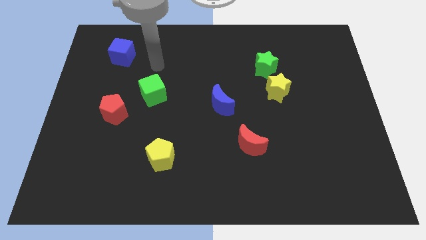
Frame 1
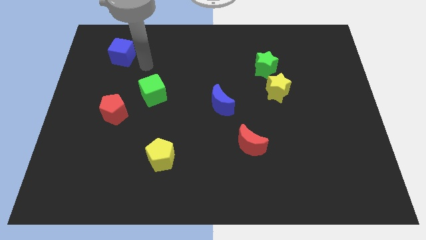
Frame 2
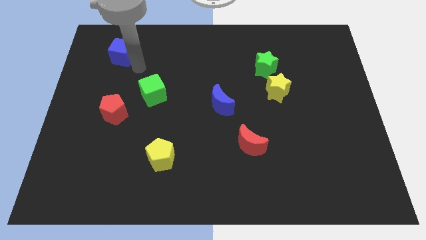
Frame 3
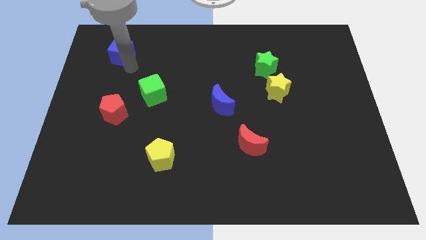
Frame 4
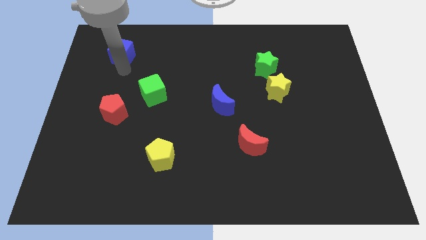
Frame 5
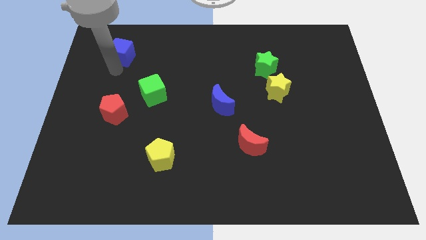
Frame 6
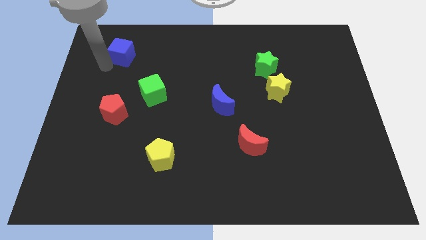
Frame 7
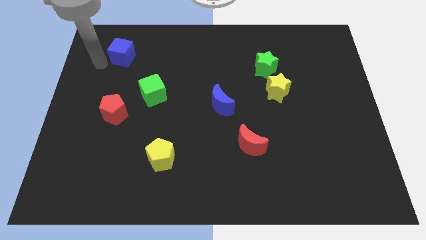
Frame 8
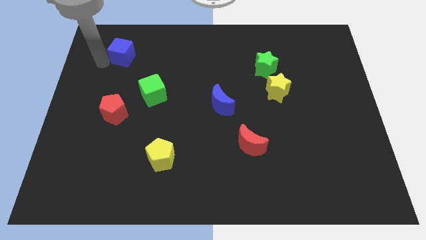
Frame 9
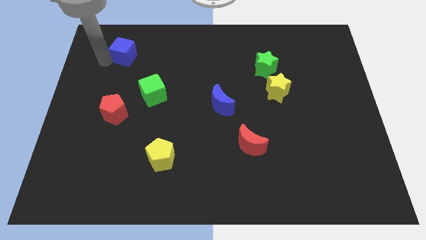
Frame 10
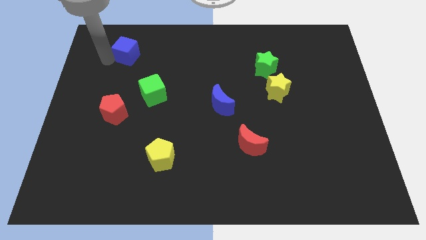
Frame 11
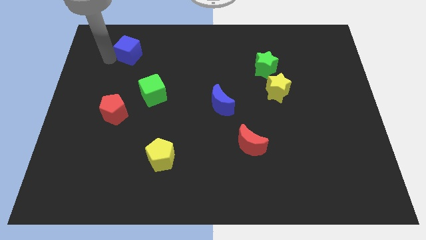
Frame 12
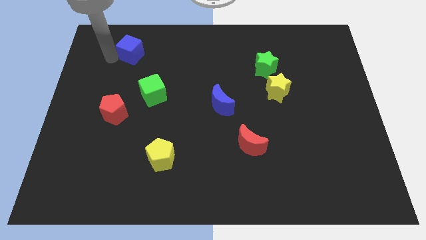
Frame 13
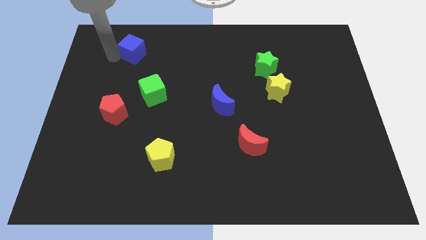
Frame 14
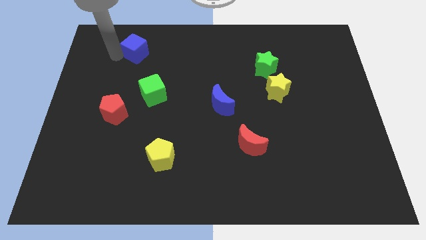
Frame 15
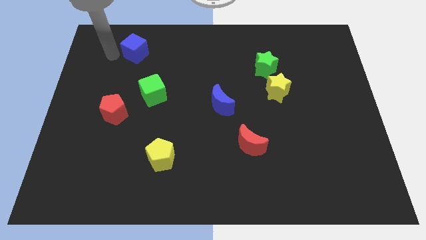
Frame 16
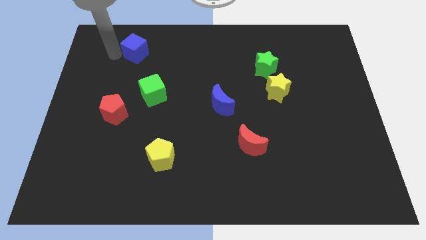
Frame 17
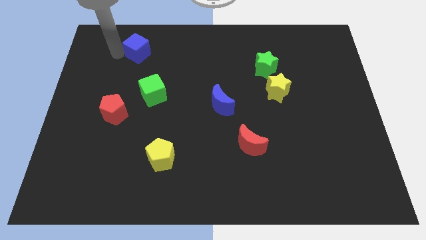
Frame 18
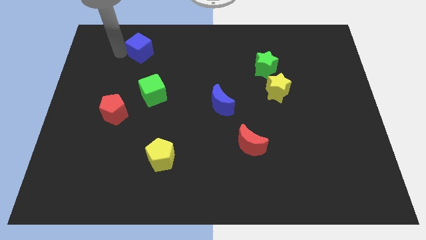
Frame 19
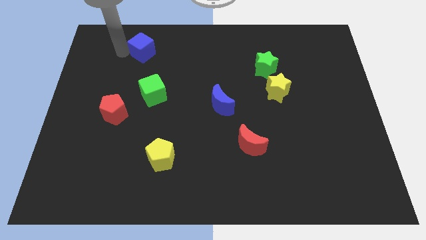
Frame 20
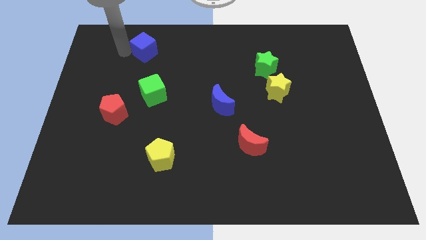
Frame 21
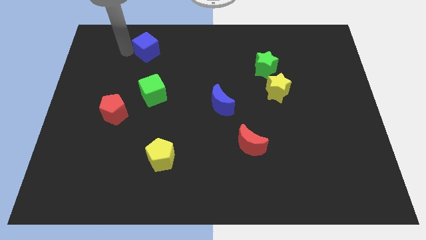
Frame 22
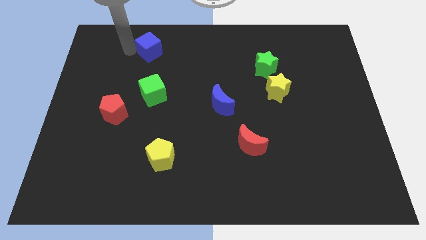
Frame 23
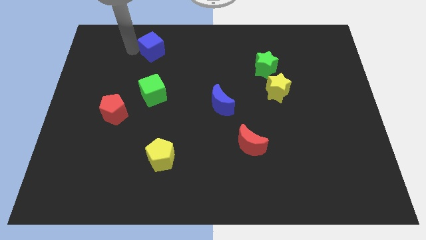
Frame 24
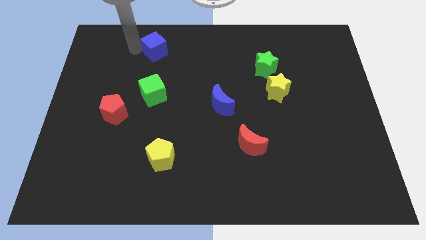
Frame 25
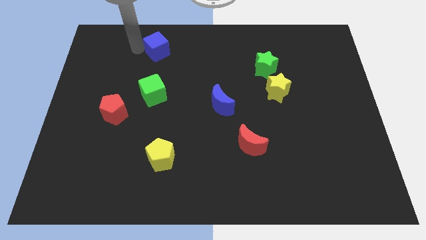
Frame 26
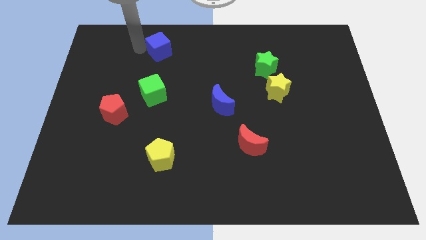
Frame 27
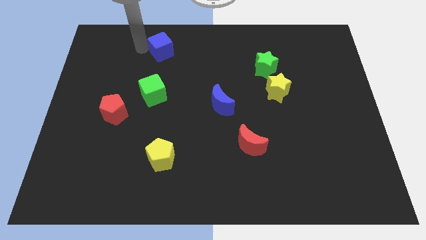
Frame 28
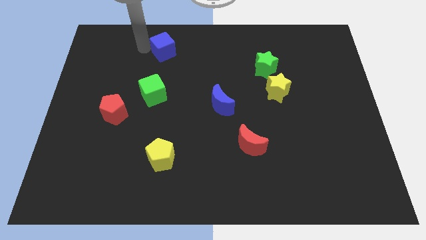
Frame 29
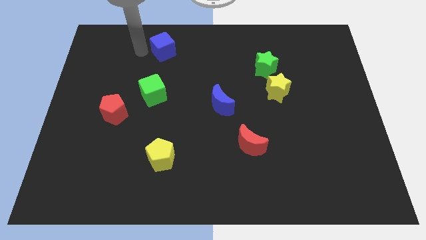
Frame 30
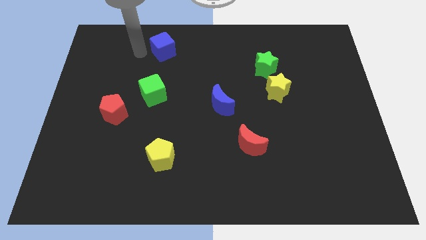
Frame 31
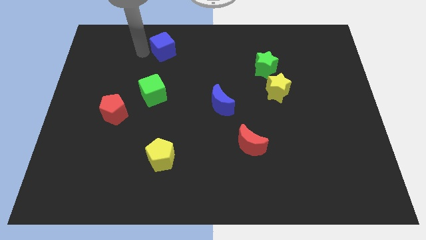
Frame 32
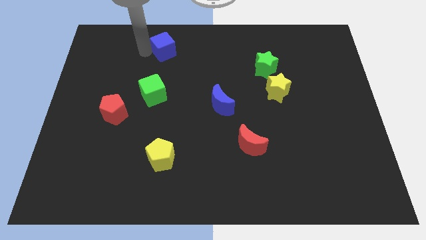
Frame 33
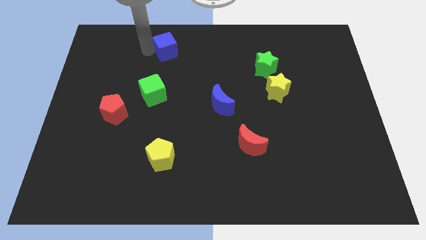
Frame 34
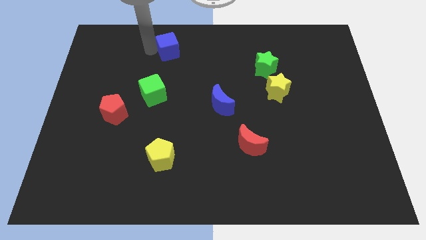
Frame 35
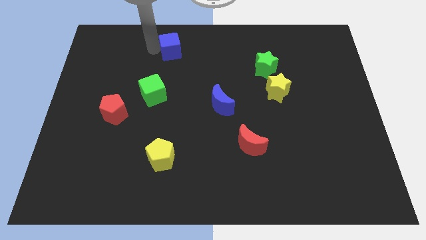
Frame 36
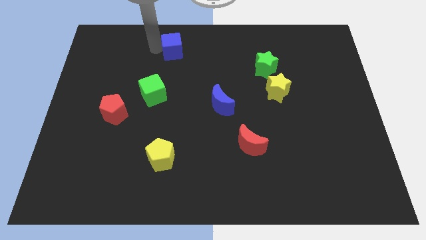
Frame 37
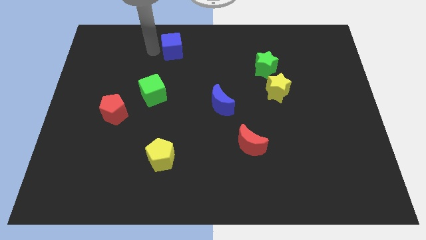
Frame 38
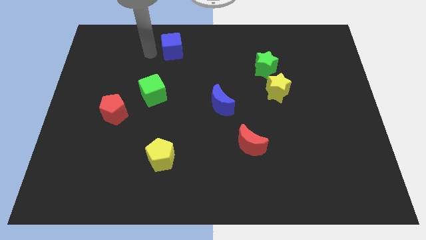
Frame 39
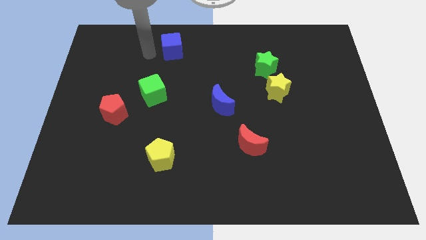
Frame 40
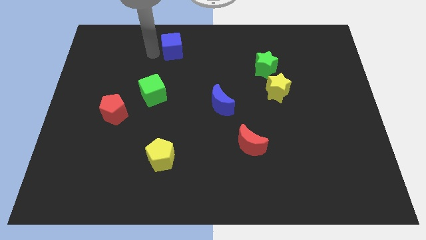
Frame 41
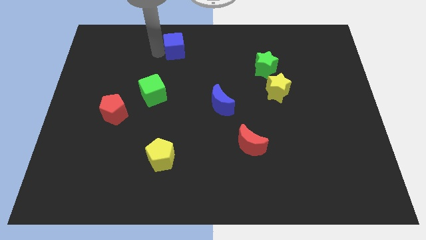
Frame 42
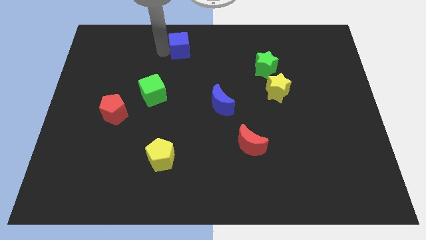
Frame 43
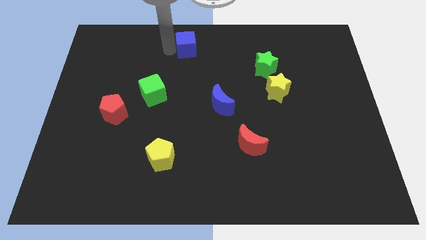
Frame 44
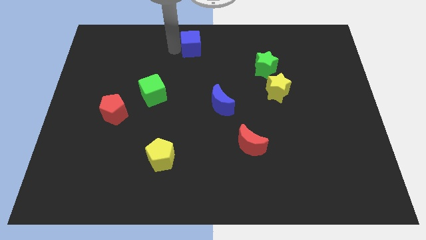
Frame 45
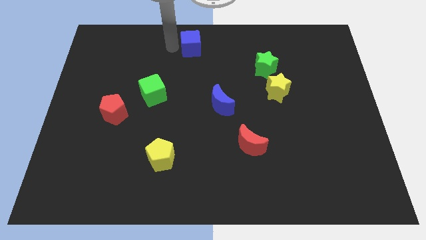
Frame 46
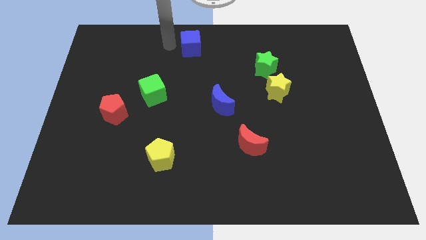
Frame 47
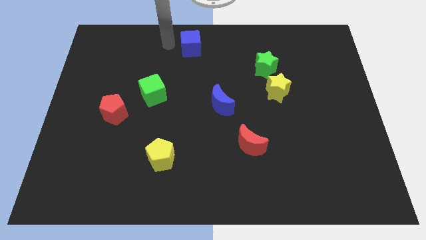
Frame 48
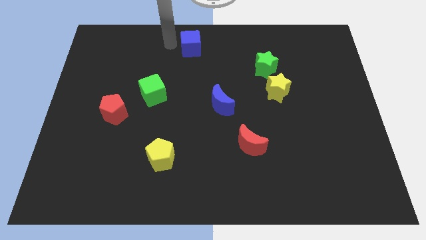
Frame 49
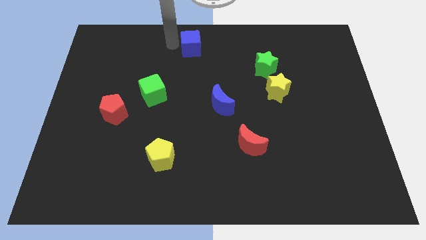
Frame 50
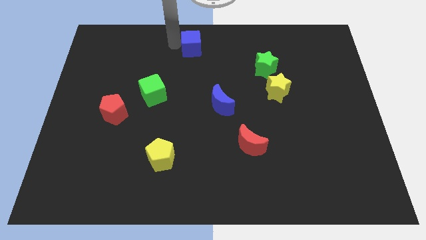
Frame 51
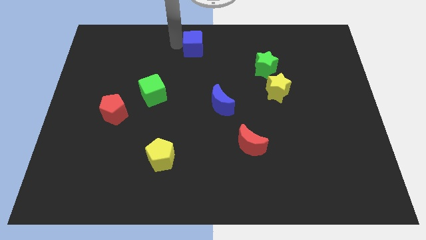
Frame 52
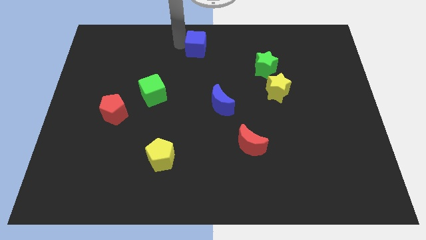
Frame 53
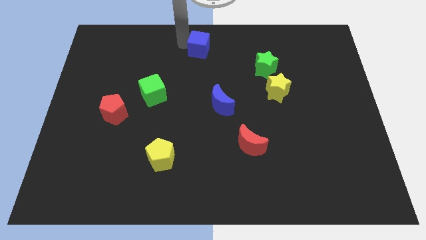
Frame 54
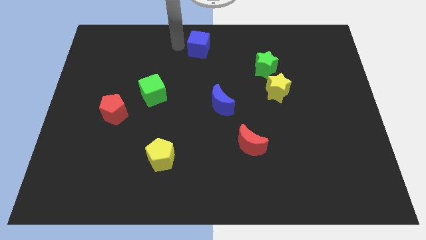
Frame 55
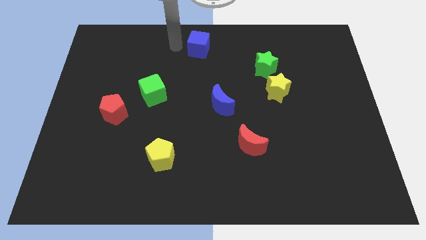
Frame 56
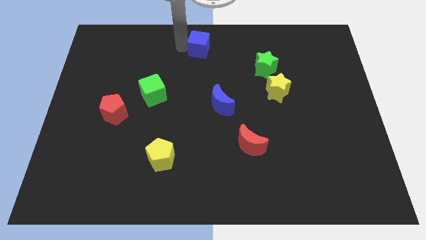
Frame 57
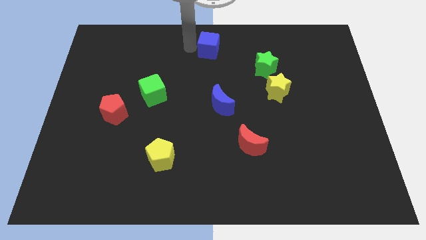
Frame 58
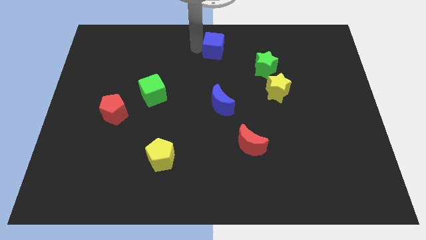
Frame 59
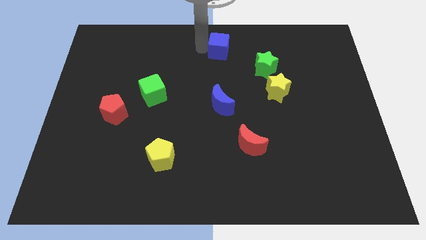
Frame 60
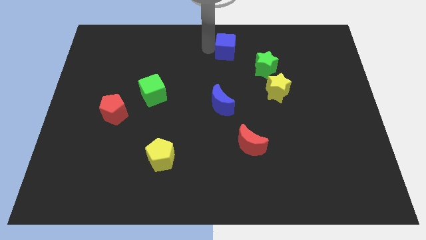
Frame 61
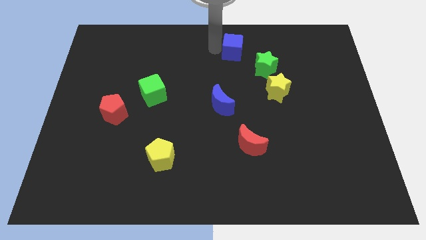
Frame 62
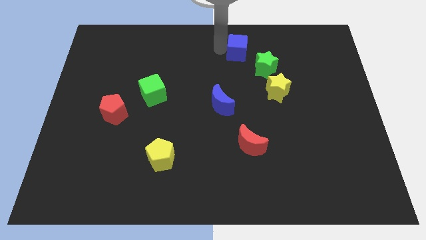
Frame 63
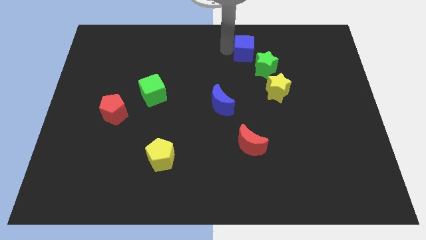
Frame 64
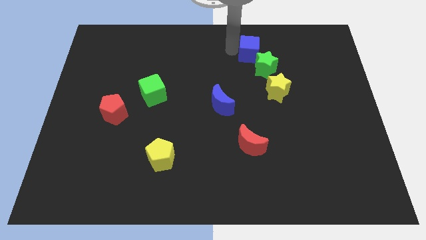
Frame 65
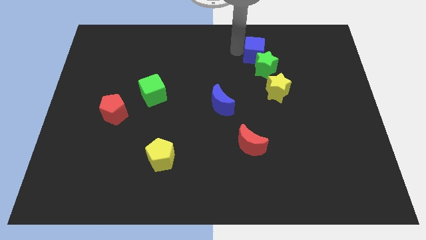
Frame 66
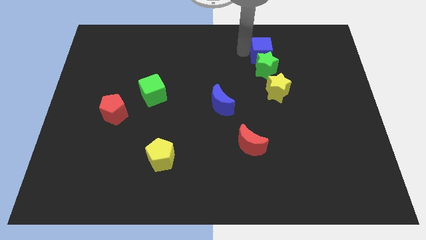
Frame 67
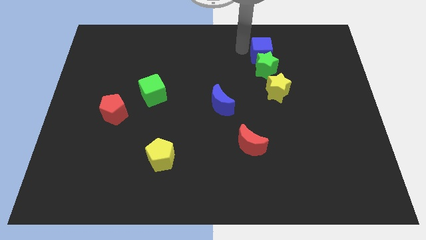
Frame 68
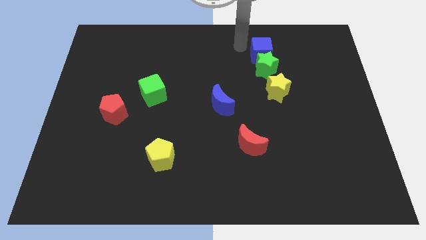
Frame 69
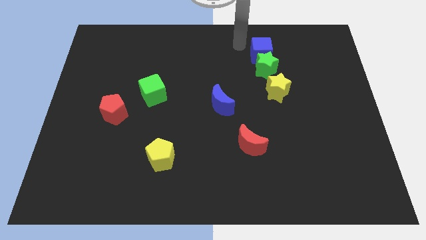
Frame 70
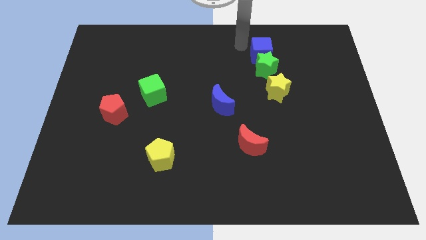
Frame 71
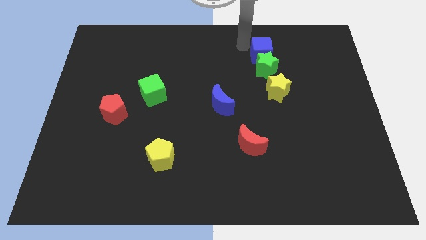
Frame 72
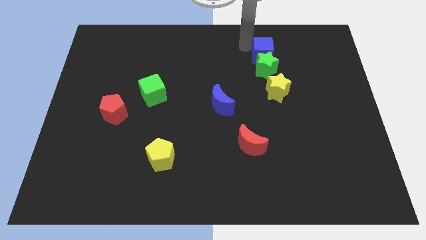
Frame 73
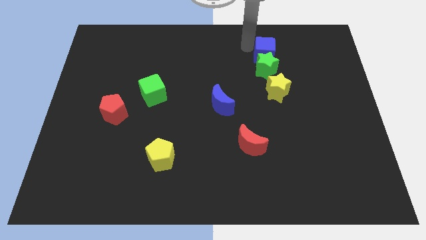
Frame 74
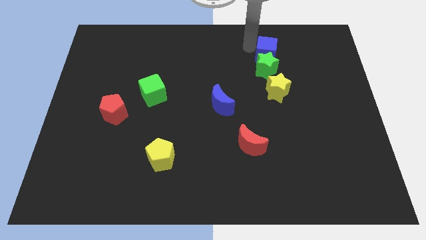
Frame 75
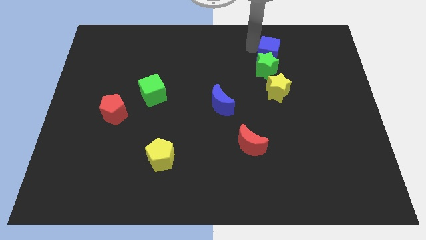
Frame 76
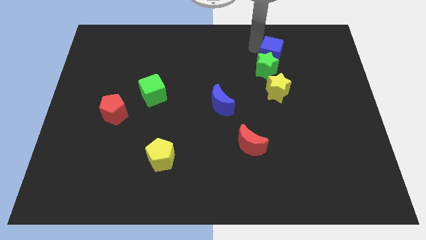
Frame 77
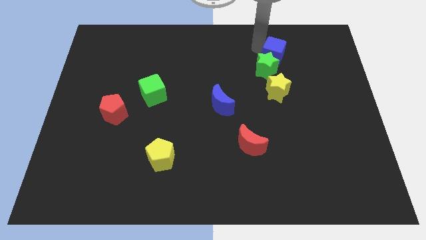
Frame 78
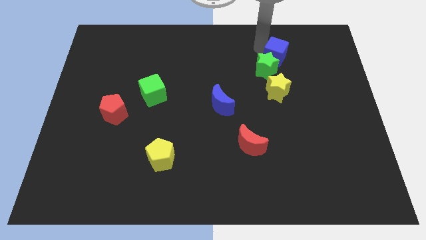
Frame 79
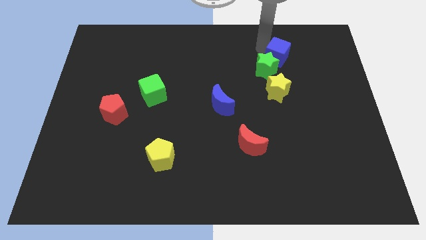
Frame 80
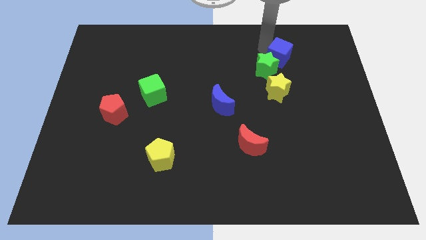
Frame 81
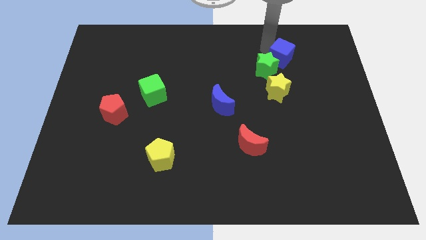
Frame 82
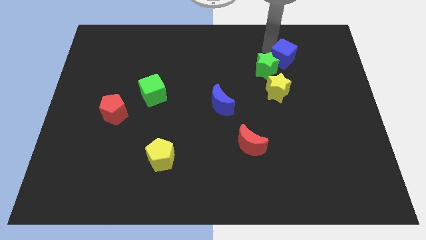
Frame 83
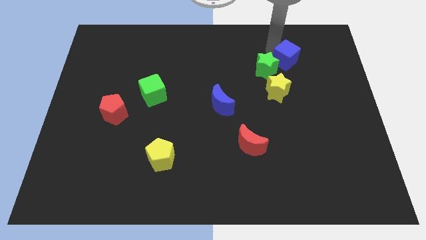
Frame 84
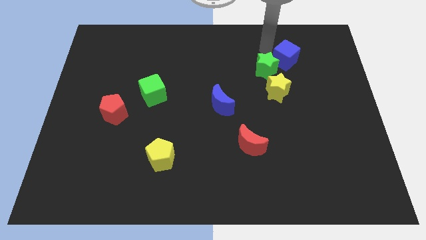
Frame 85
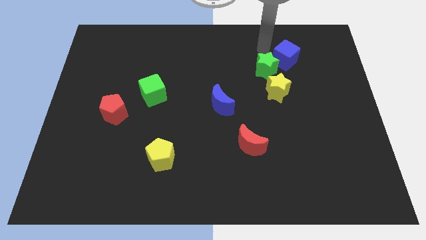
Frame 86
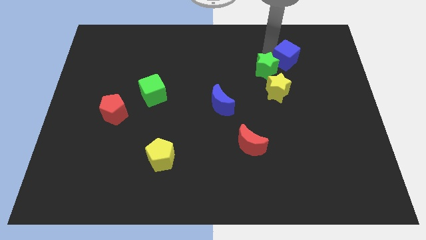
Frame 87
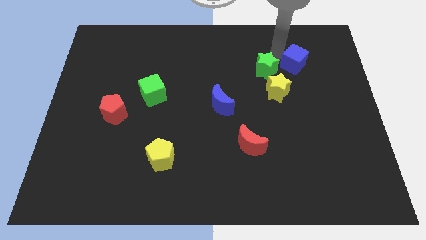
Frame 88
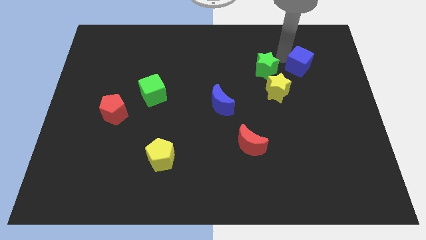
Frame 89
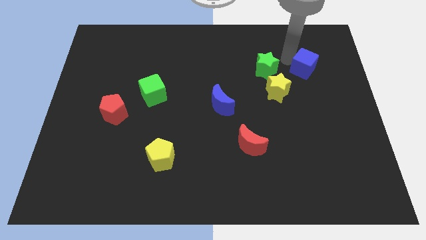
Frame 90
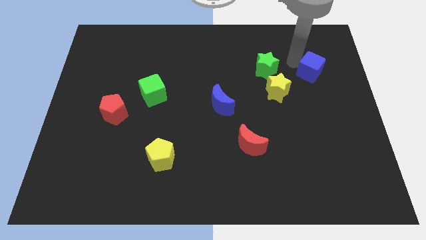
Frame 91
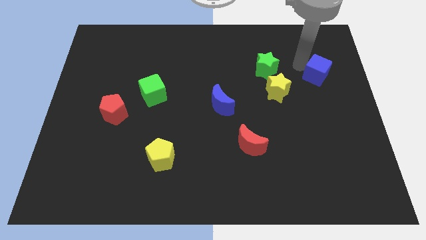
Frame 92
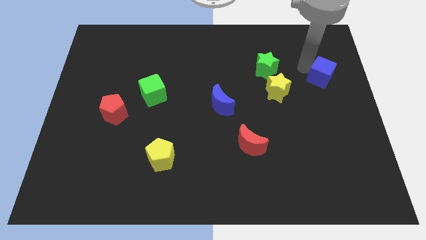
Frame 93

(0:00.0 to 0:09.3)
slide the blue cube to the center right
